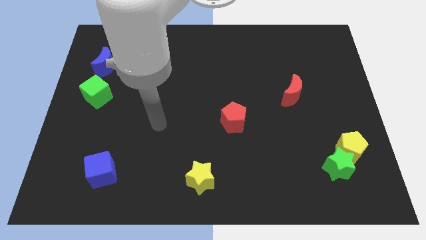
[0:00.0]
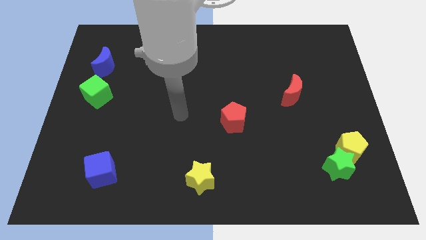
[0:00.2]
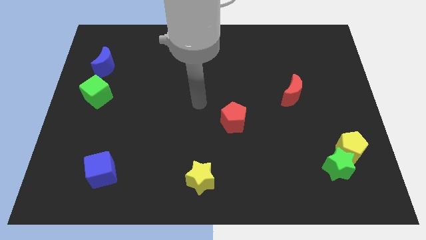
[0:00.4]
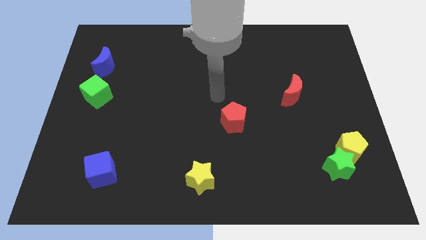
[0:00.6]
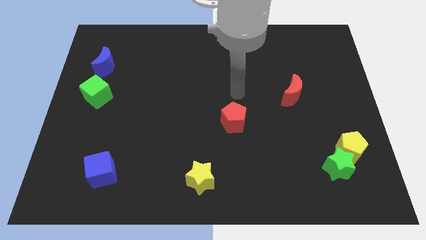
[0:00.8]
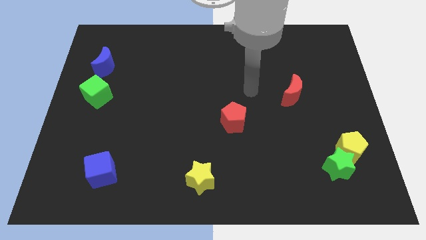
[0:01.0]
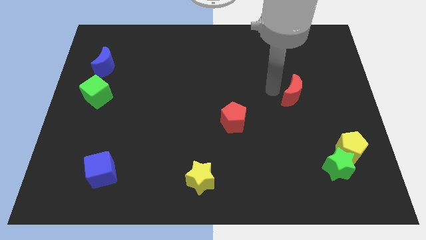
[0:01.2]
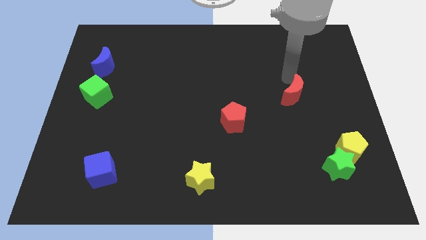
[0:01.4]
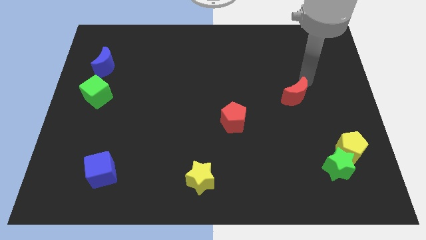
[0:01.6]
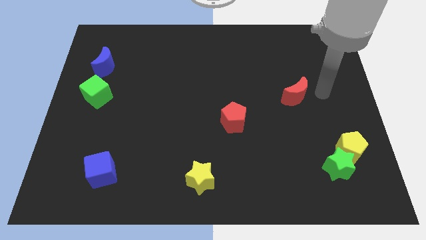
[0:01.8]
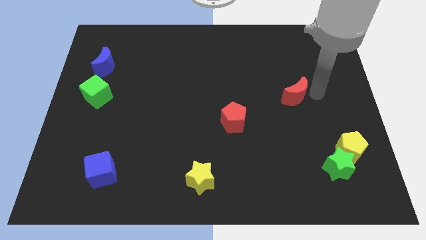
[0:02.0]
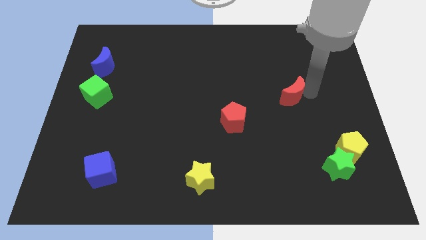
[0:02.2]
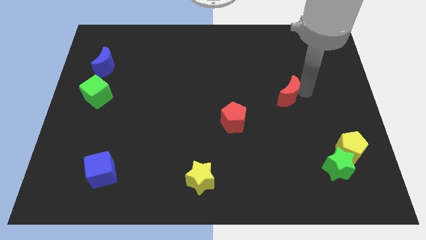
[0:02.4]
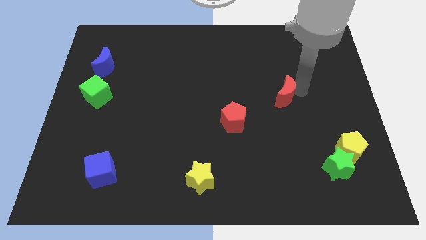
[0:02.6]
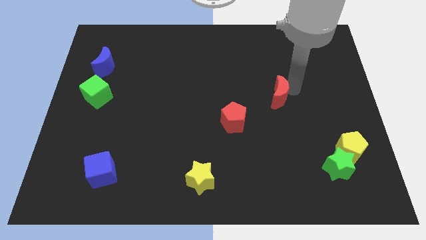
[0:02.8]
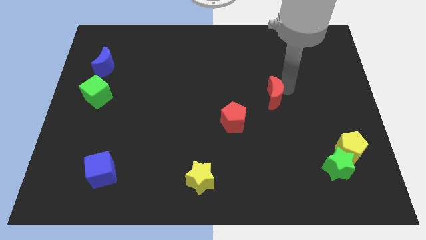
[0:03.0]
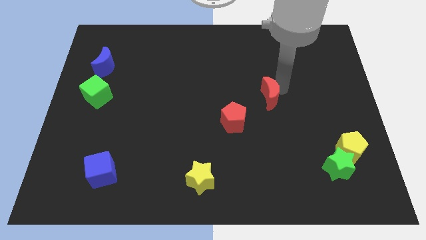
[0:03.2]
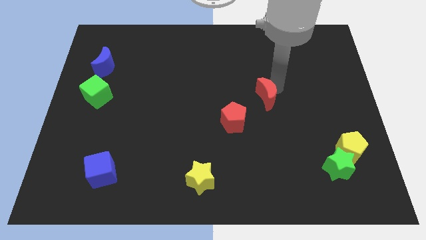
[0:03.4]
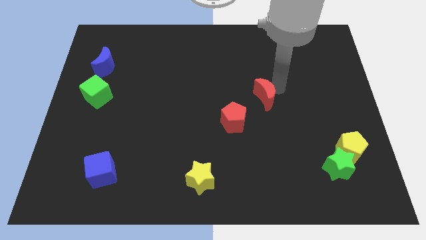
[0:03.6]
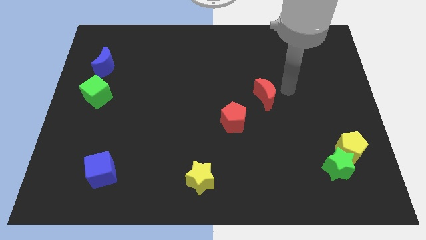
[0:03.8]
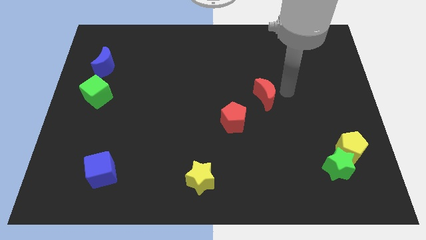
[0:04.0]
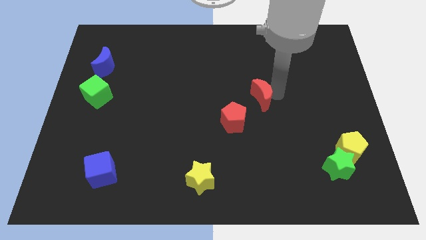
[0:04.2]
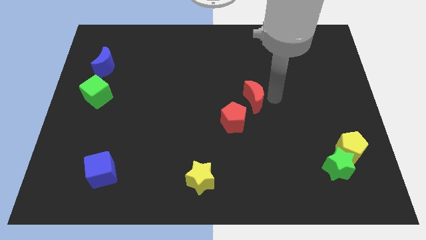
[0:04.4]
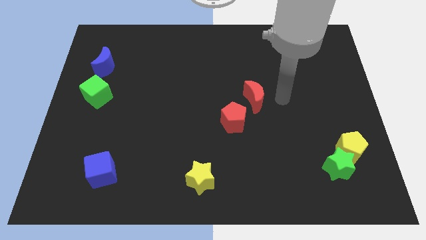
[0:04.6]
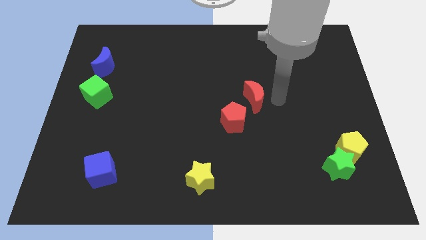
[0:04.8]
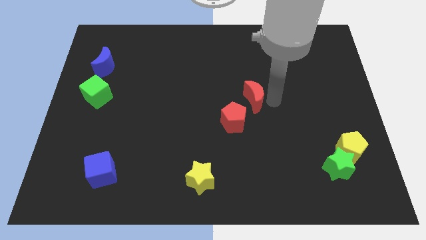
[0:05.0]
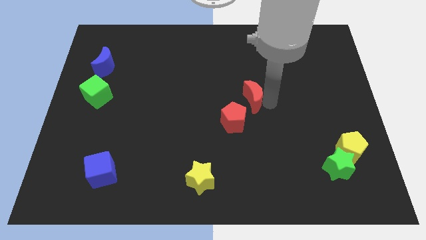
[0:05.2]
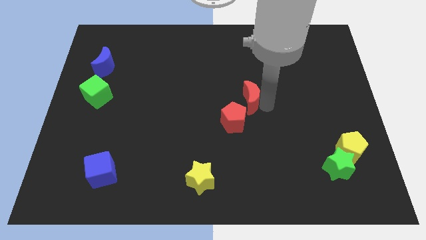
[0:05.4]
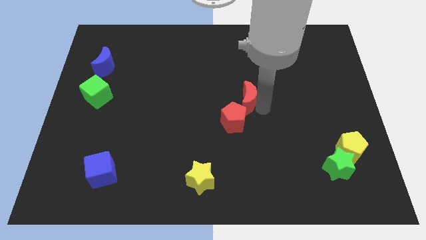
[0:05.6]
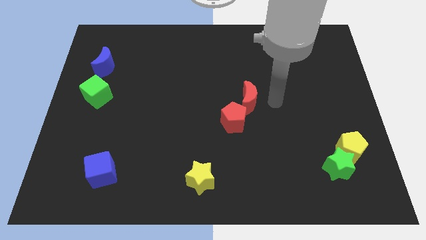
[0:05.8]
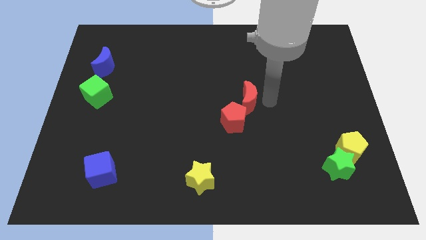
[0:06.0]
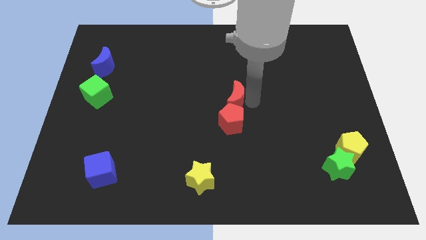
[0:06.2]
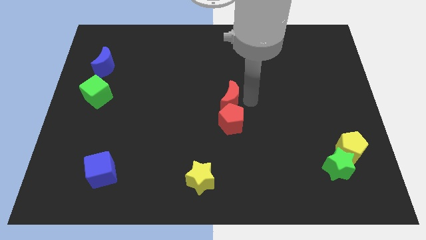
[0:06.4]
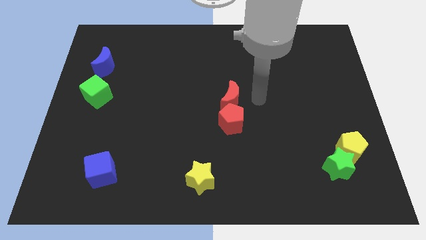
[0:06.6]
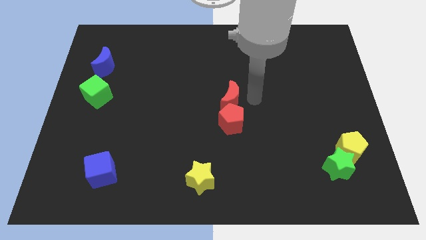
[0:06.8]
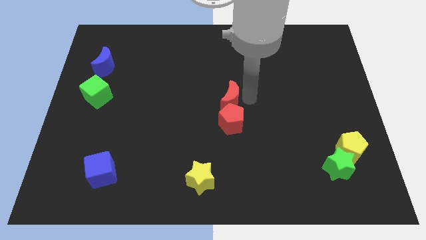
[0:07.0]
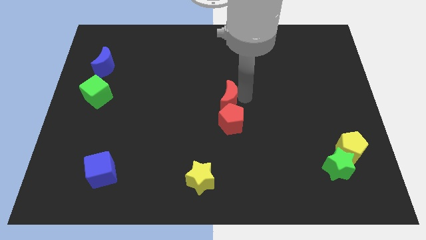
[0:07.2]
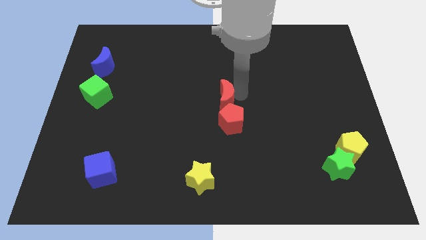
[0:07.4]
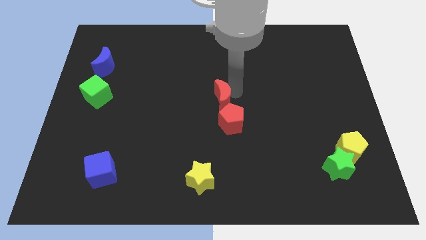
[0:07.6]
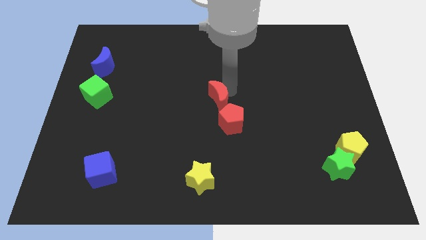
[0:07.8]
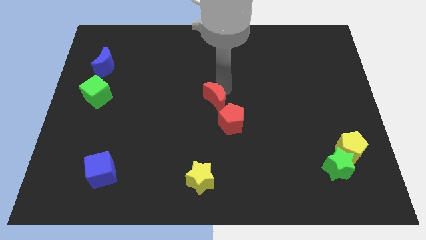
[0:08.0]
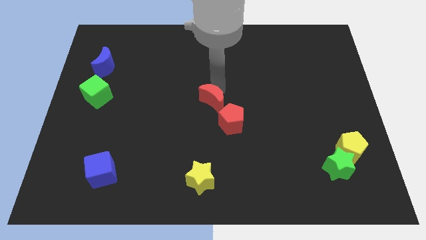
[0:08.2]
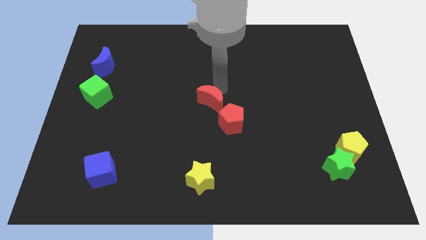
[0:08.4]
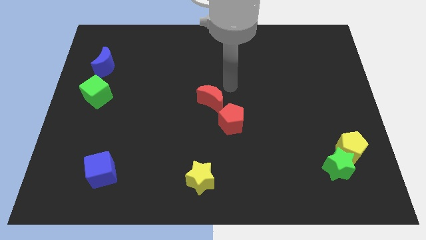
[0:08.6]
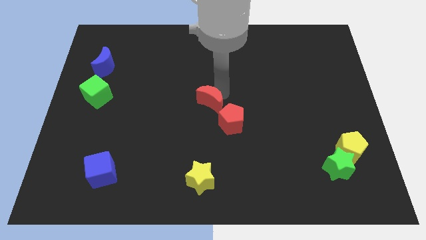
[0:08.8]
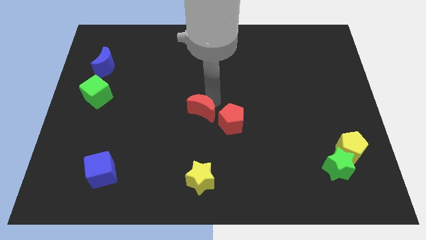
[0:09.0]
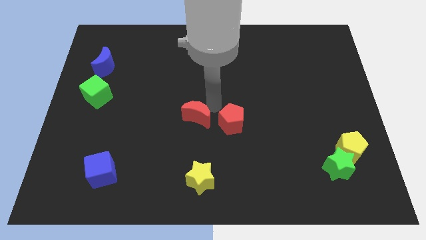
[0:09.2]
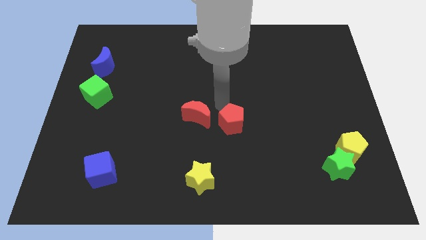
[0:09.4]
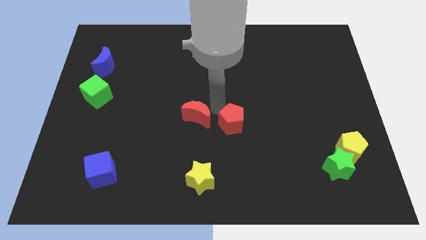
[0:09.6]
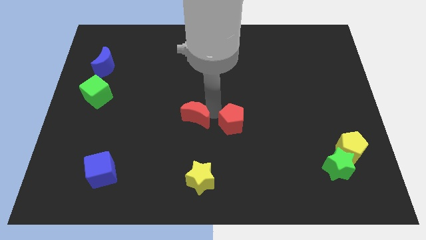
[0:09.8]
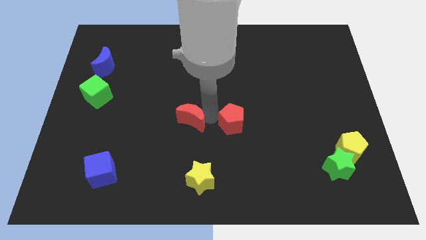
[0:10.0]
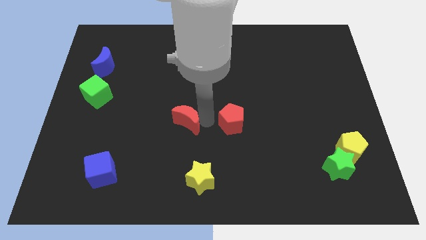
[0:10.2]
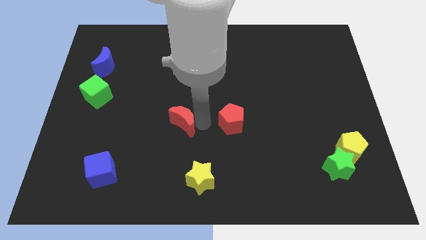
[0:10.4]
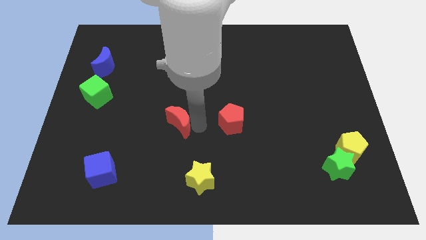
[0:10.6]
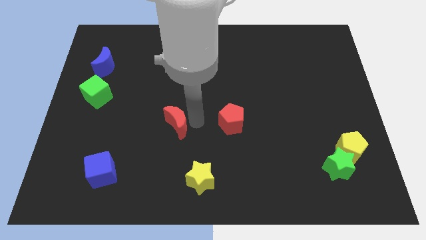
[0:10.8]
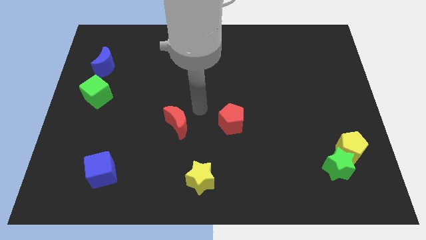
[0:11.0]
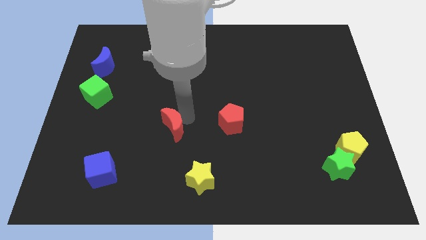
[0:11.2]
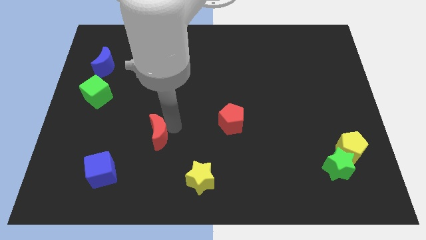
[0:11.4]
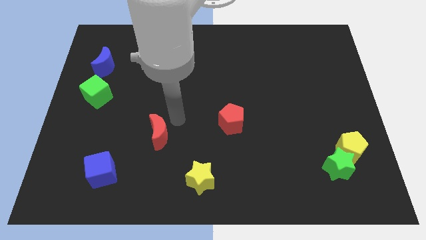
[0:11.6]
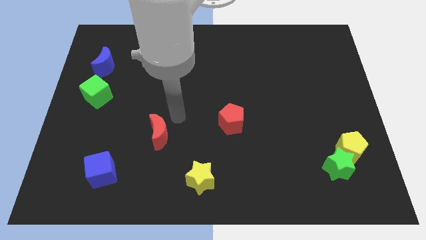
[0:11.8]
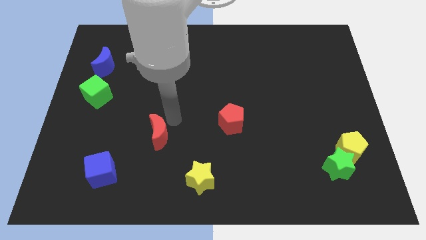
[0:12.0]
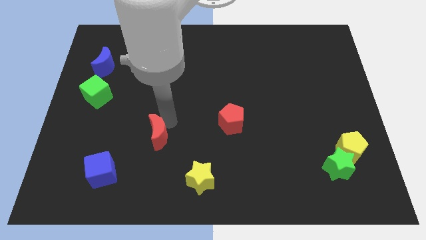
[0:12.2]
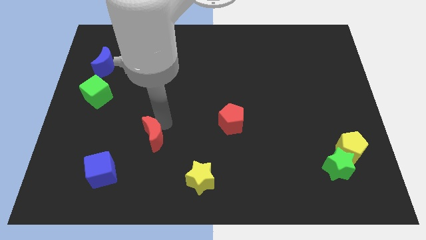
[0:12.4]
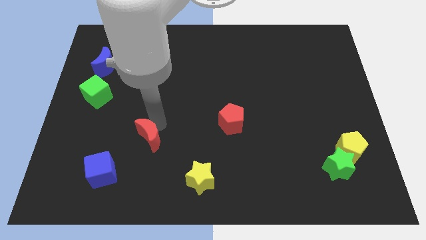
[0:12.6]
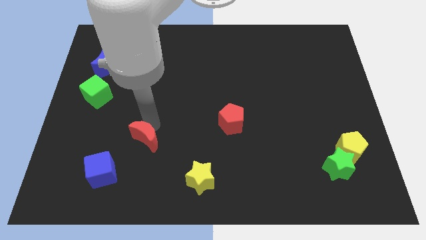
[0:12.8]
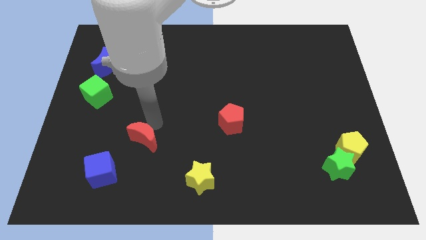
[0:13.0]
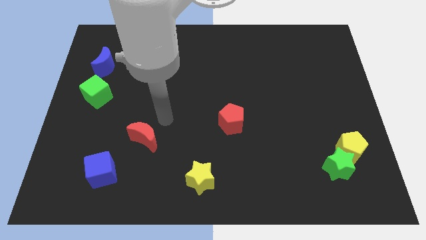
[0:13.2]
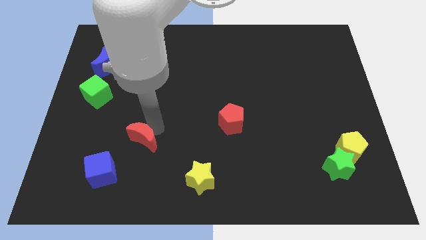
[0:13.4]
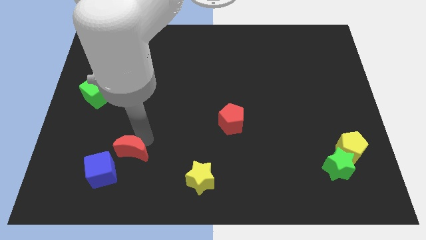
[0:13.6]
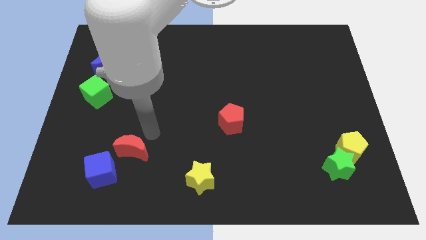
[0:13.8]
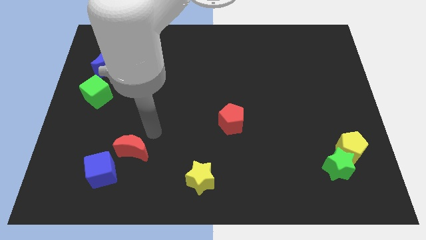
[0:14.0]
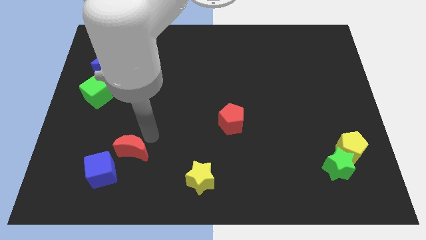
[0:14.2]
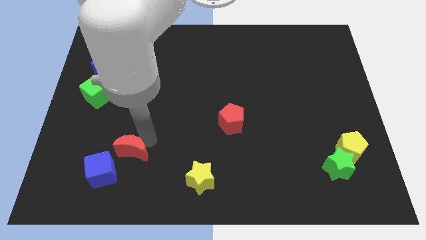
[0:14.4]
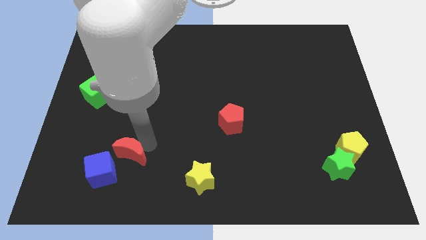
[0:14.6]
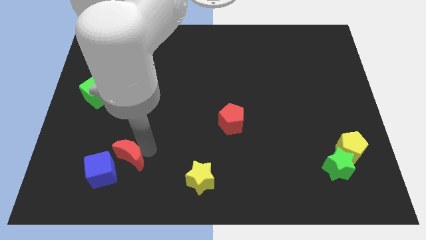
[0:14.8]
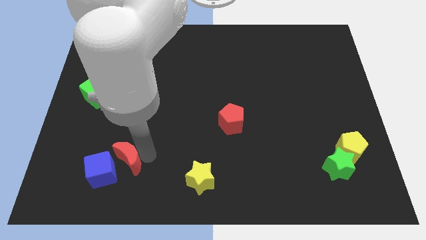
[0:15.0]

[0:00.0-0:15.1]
move the red moon towards the blue cube
